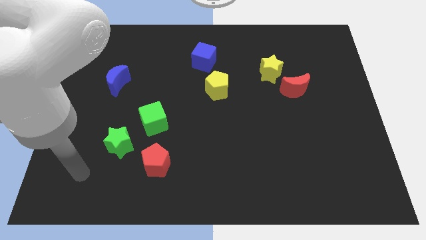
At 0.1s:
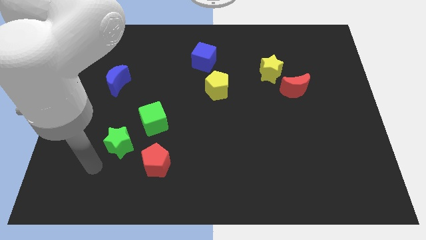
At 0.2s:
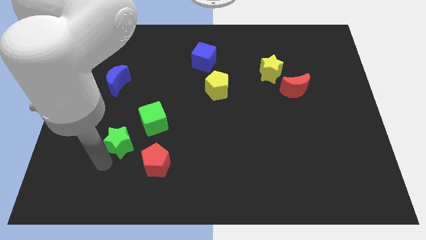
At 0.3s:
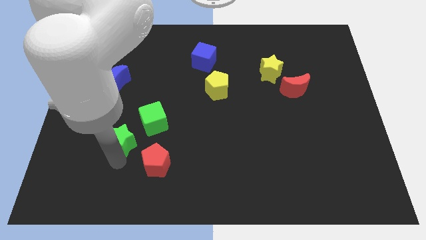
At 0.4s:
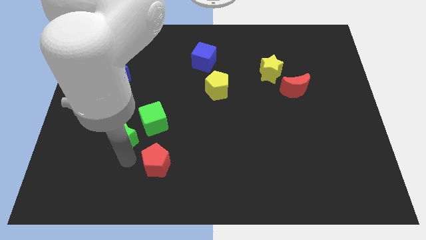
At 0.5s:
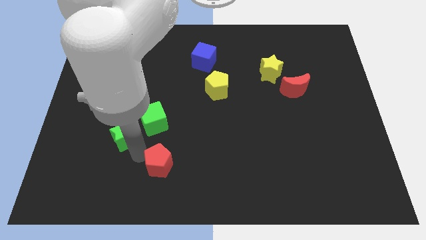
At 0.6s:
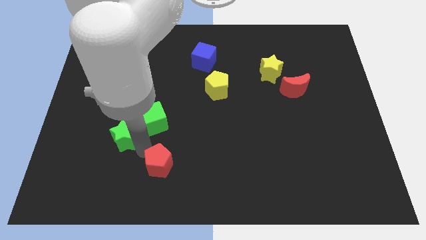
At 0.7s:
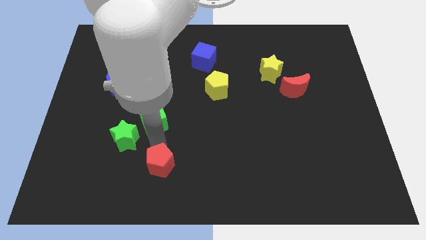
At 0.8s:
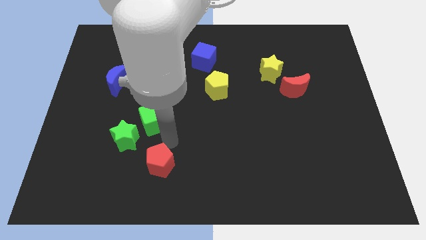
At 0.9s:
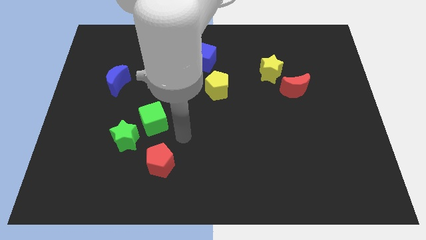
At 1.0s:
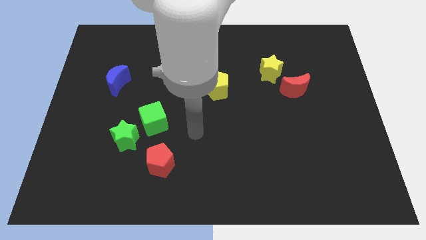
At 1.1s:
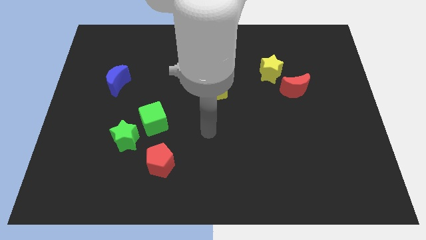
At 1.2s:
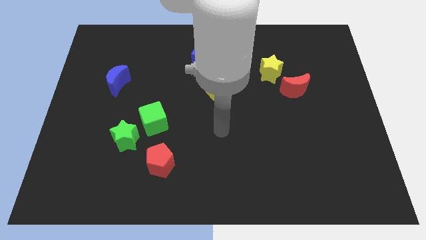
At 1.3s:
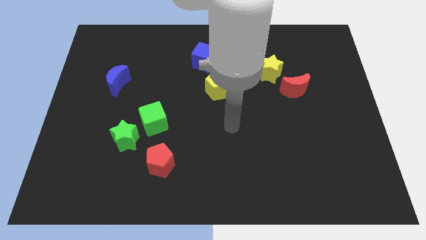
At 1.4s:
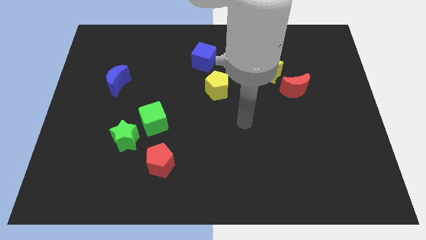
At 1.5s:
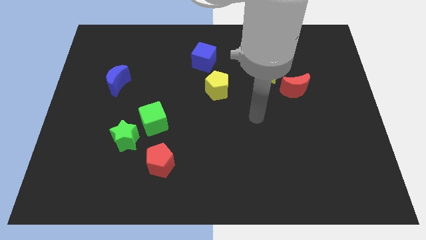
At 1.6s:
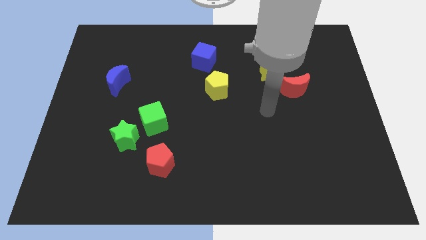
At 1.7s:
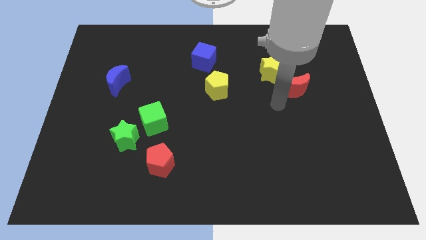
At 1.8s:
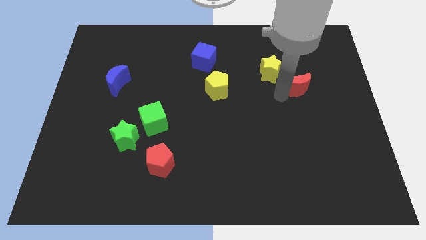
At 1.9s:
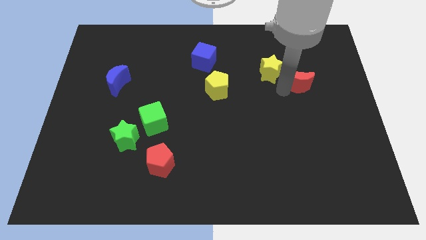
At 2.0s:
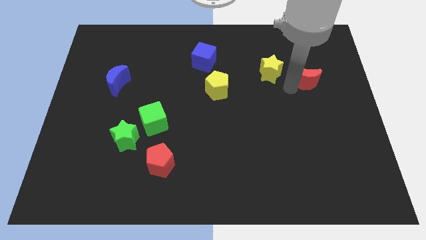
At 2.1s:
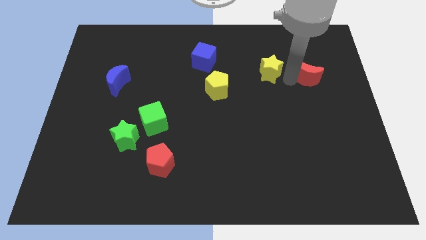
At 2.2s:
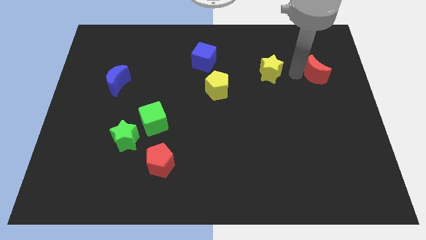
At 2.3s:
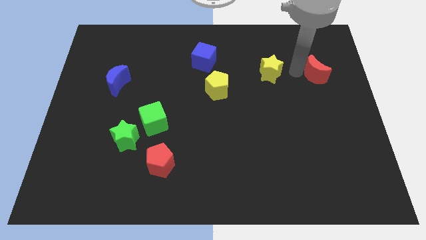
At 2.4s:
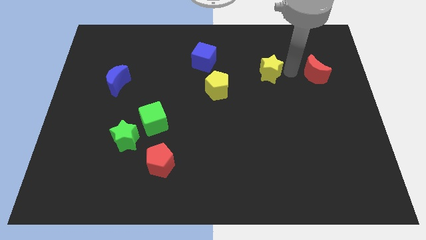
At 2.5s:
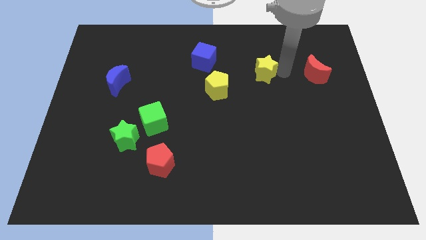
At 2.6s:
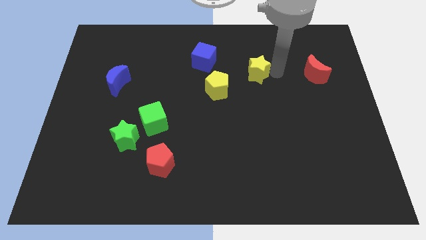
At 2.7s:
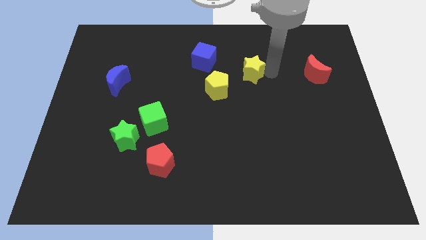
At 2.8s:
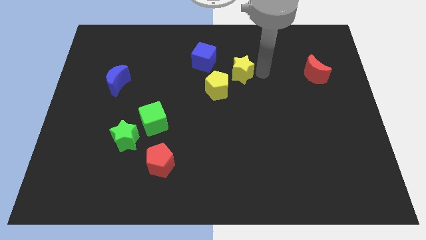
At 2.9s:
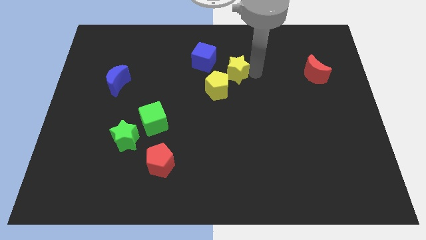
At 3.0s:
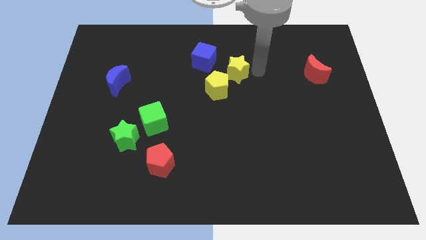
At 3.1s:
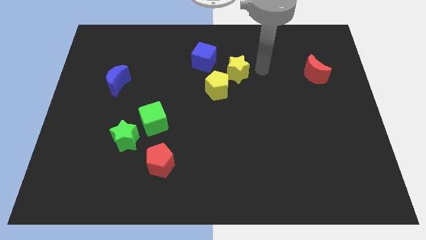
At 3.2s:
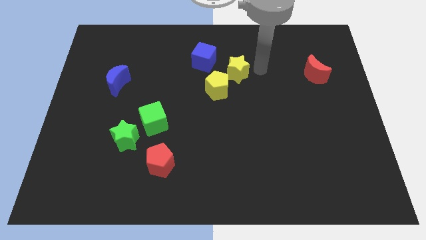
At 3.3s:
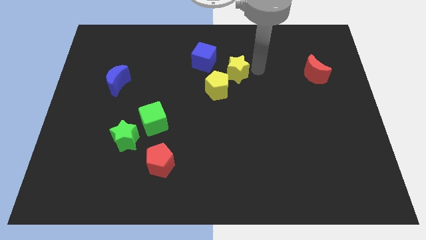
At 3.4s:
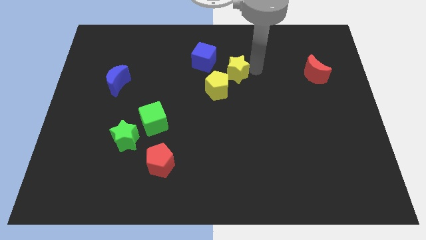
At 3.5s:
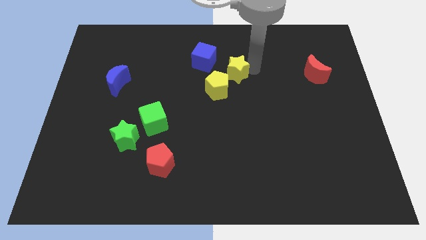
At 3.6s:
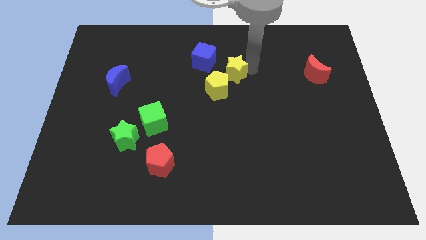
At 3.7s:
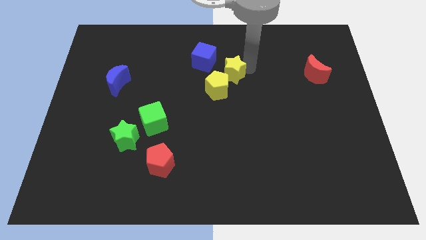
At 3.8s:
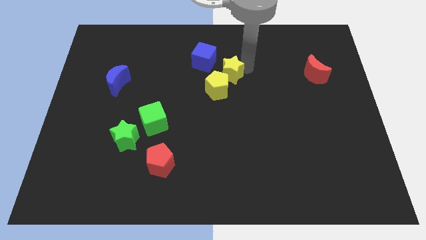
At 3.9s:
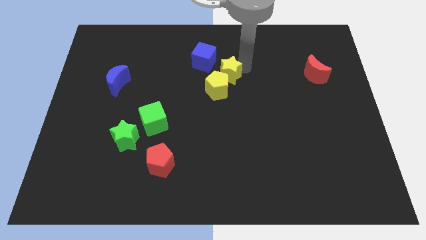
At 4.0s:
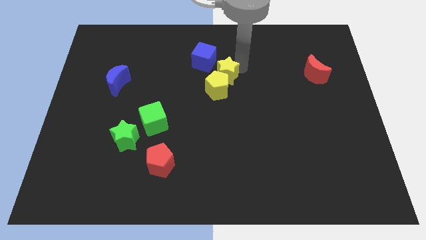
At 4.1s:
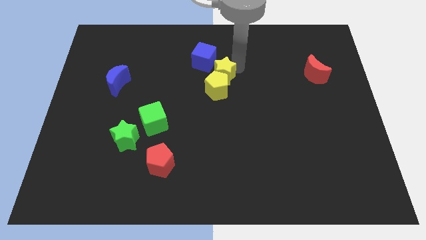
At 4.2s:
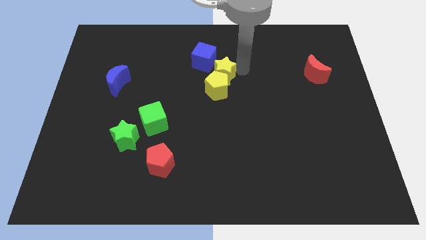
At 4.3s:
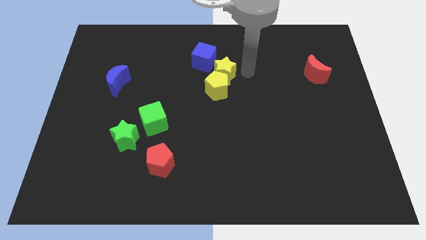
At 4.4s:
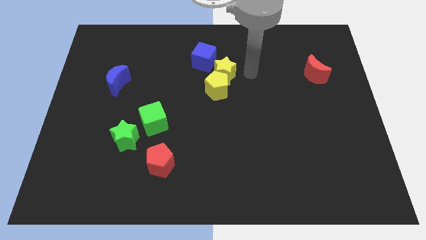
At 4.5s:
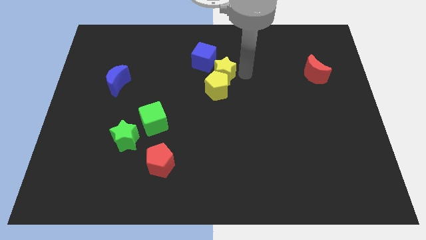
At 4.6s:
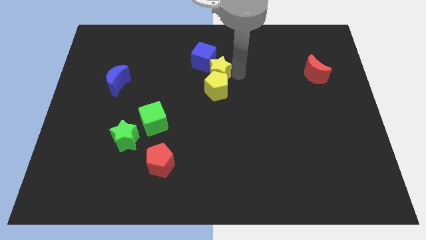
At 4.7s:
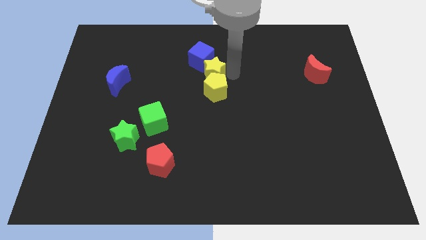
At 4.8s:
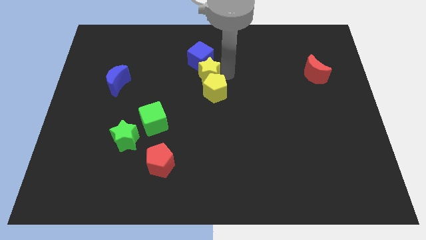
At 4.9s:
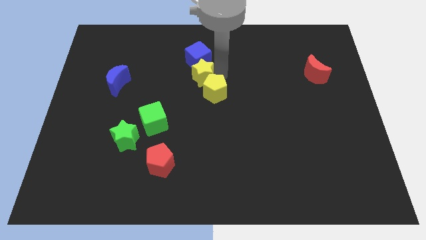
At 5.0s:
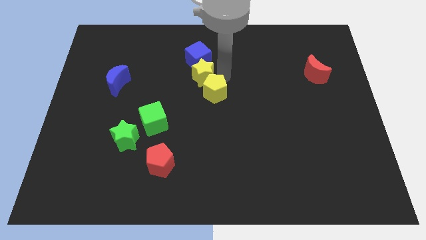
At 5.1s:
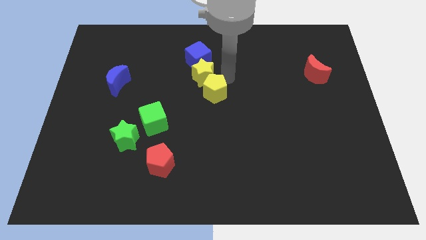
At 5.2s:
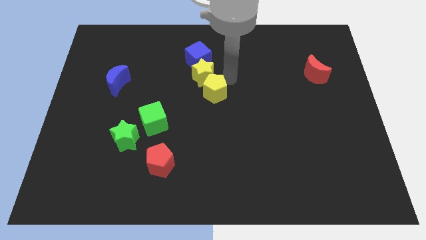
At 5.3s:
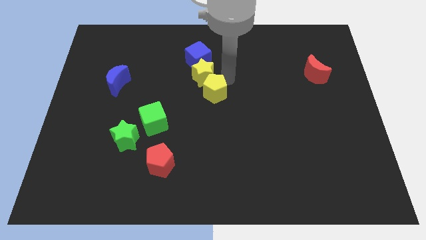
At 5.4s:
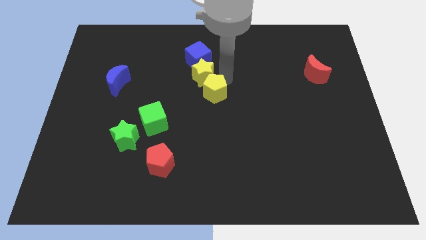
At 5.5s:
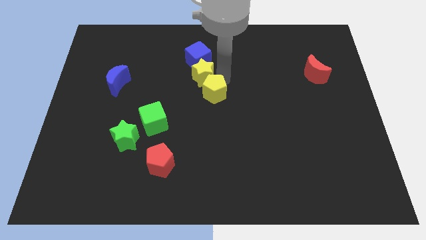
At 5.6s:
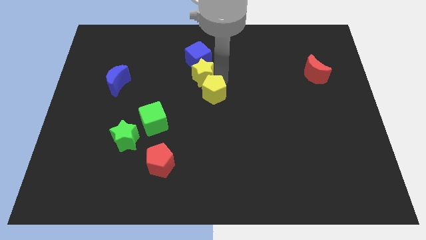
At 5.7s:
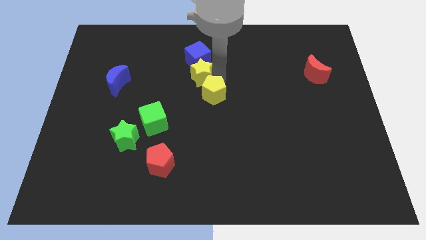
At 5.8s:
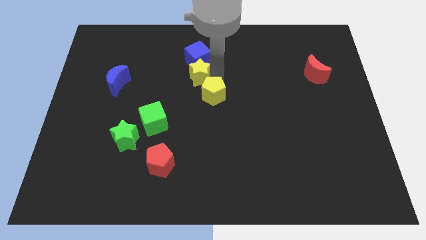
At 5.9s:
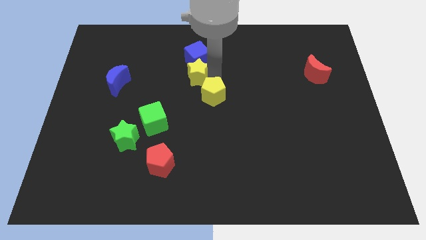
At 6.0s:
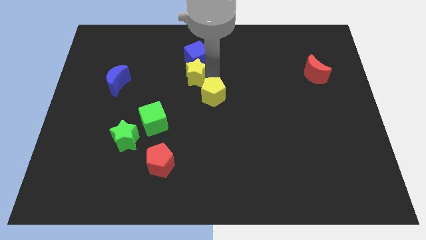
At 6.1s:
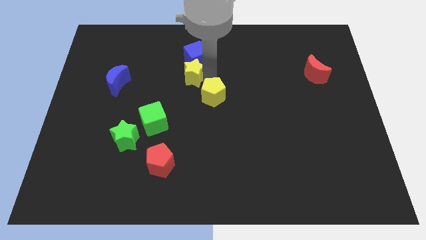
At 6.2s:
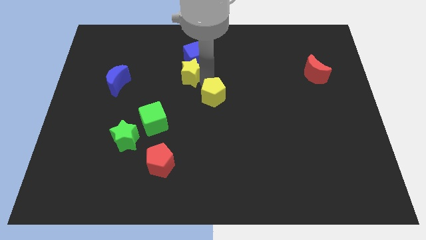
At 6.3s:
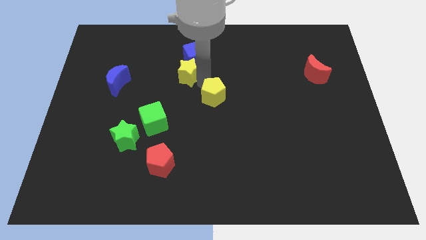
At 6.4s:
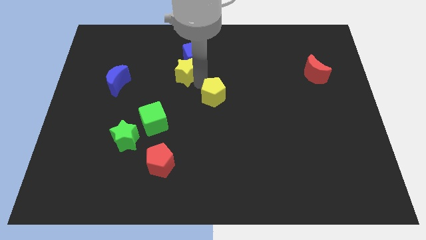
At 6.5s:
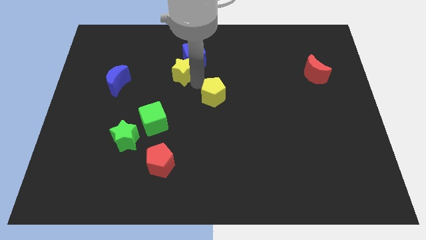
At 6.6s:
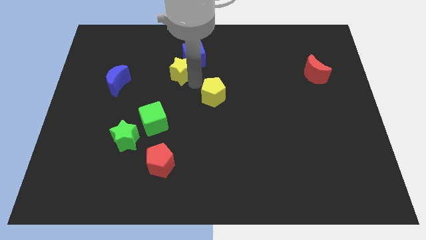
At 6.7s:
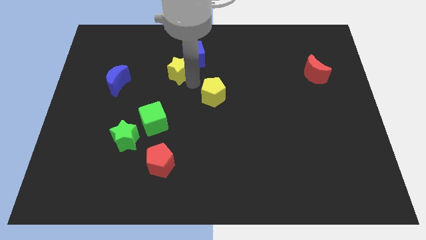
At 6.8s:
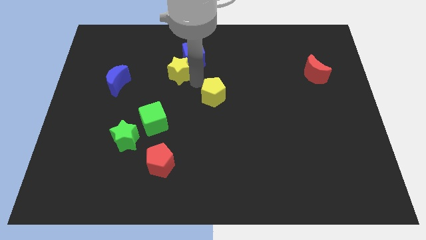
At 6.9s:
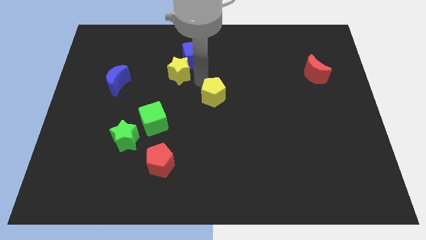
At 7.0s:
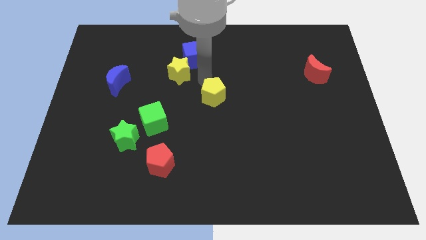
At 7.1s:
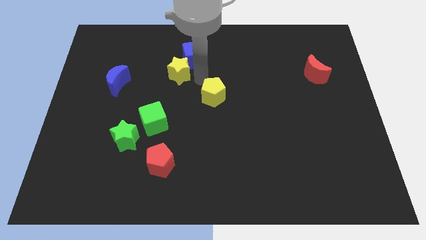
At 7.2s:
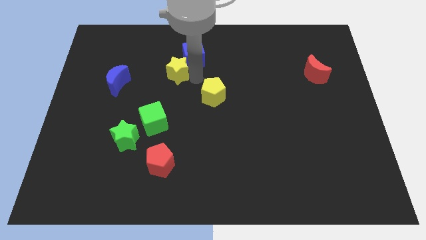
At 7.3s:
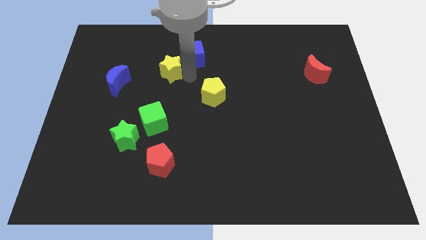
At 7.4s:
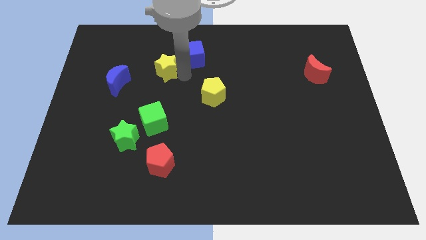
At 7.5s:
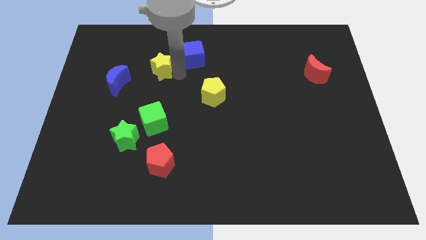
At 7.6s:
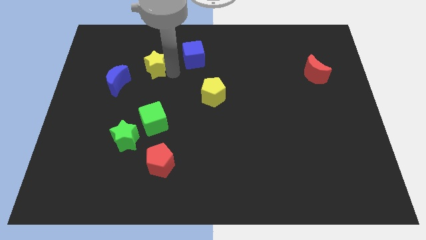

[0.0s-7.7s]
push the yellow star diagonally up and to the right of the blue moon
